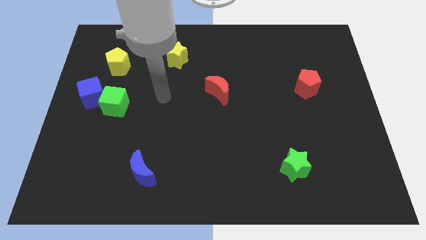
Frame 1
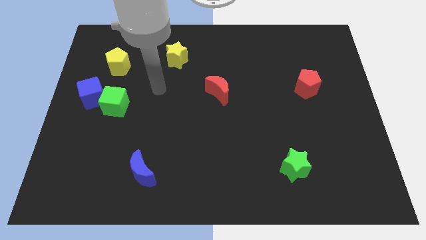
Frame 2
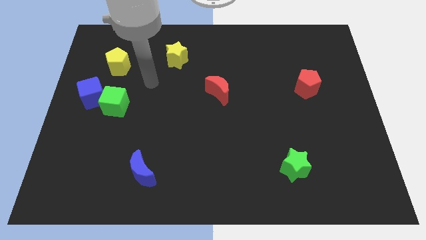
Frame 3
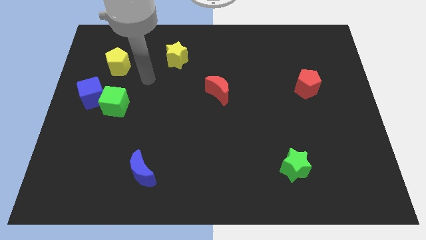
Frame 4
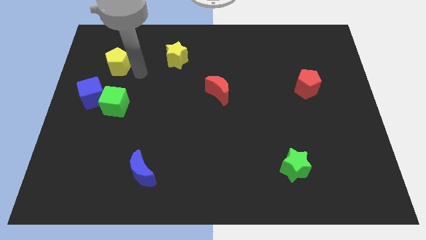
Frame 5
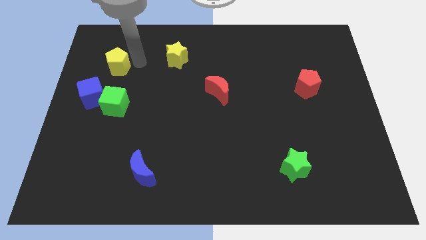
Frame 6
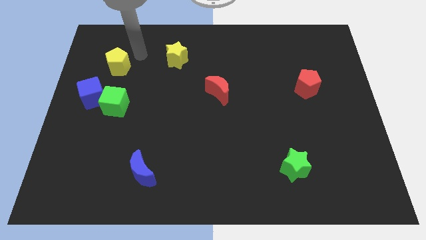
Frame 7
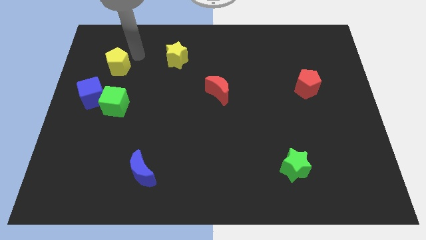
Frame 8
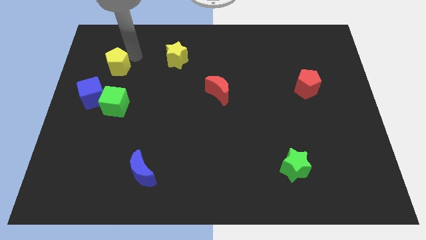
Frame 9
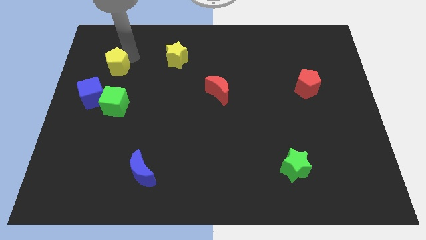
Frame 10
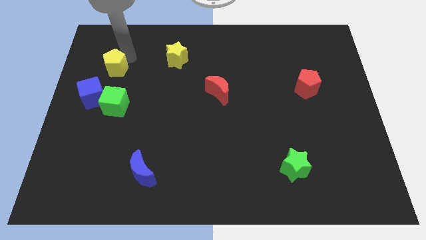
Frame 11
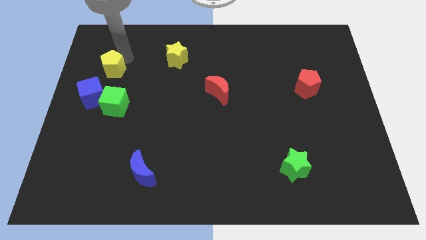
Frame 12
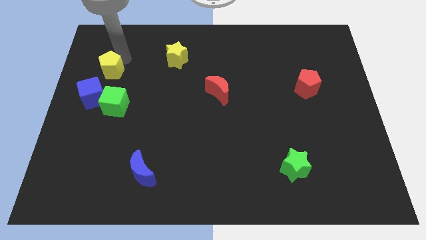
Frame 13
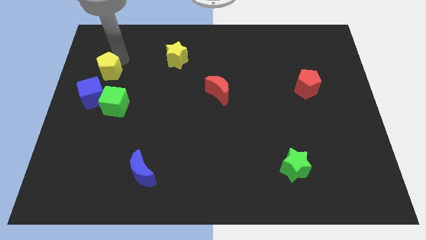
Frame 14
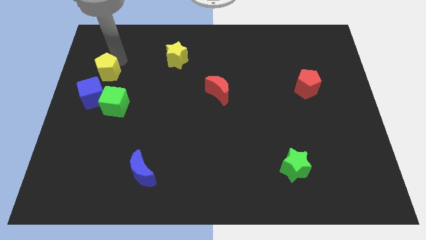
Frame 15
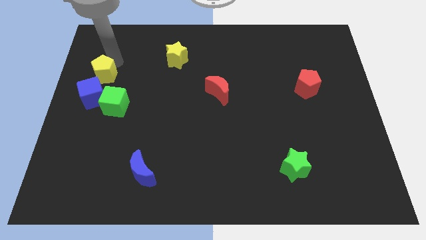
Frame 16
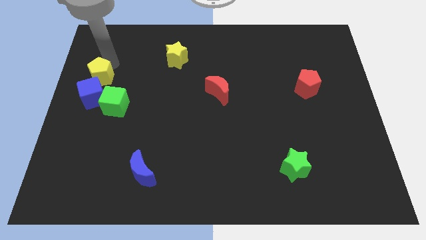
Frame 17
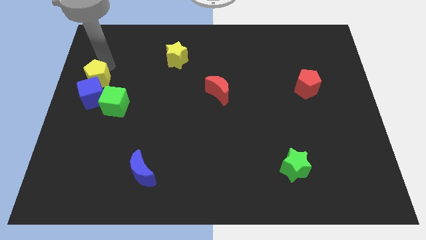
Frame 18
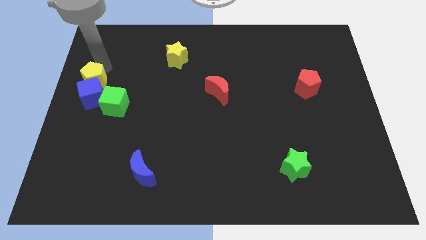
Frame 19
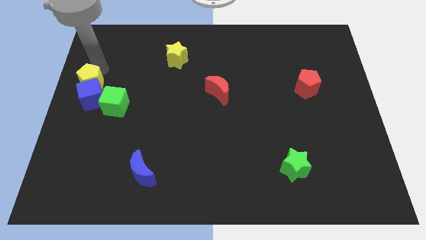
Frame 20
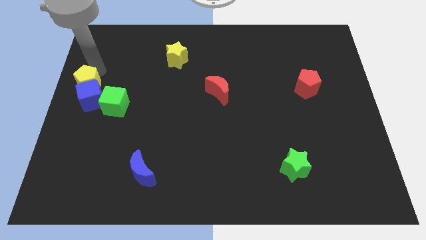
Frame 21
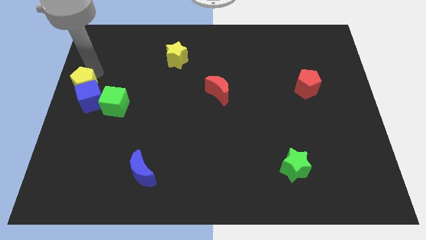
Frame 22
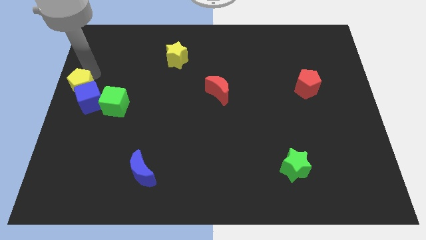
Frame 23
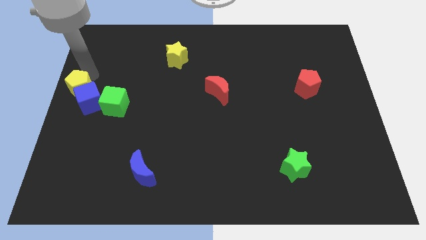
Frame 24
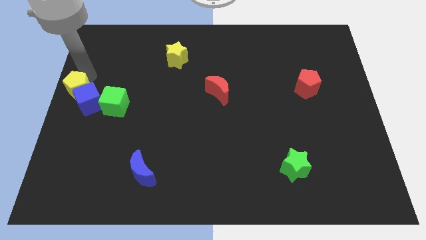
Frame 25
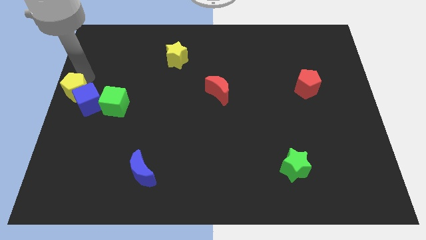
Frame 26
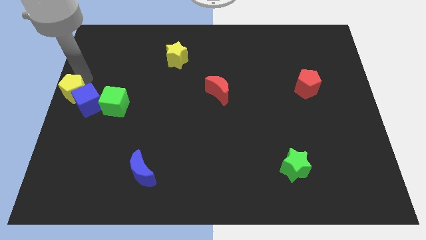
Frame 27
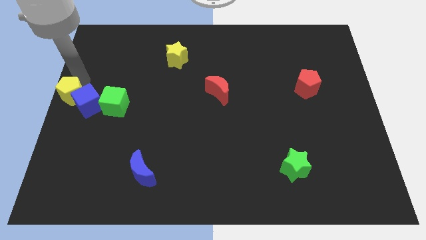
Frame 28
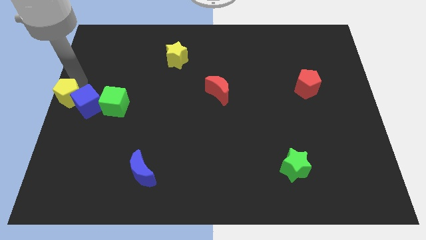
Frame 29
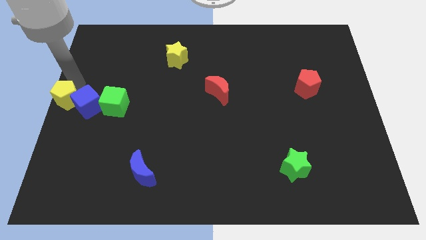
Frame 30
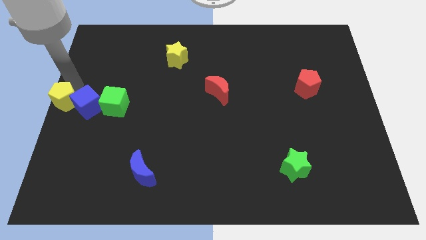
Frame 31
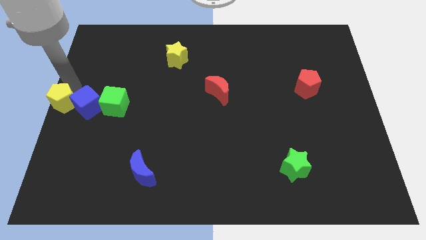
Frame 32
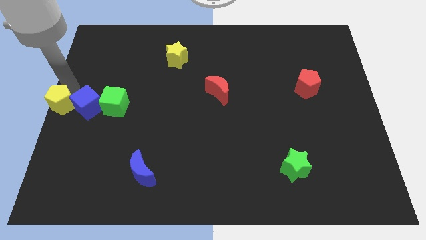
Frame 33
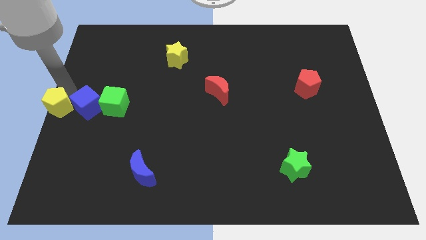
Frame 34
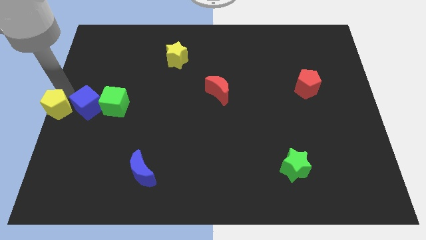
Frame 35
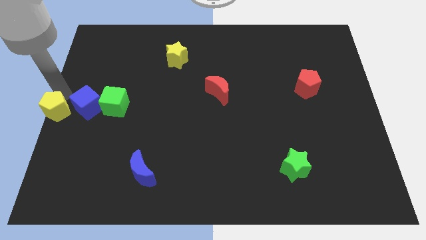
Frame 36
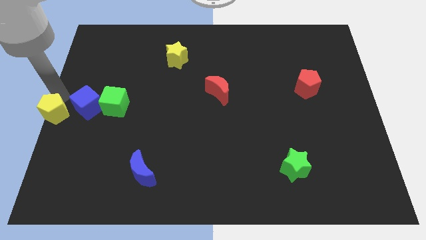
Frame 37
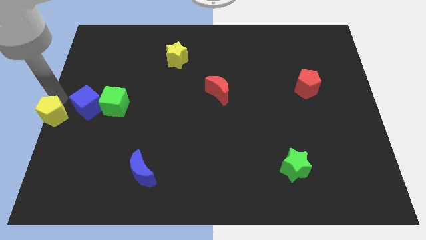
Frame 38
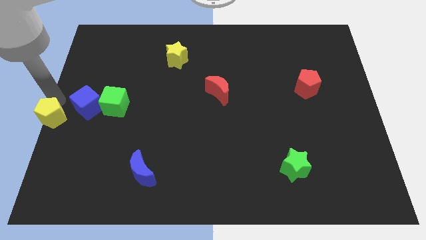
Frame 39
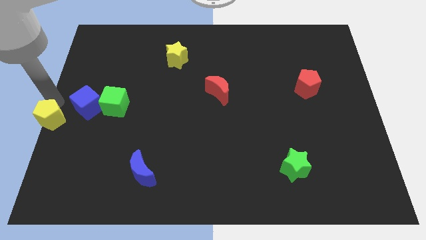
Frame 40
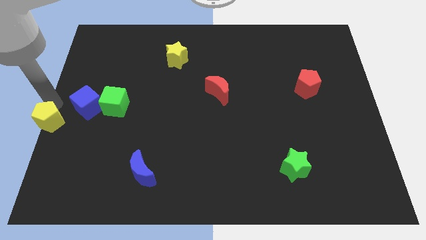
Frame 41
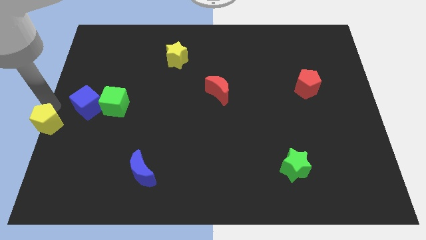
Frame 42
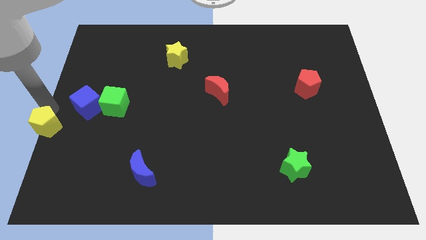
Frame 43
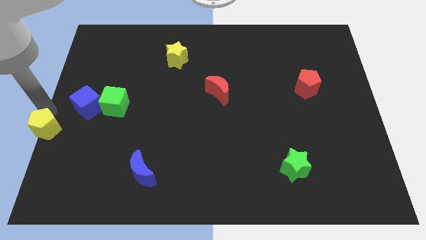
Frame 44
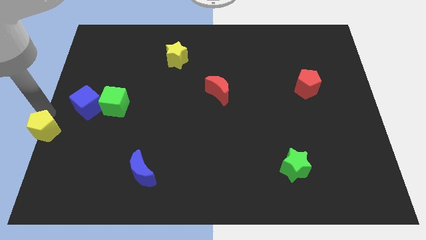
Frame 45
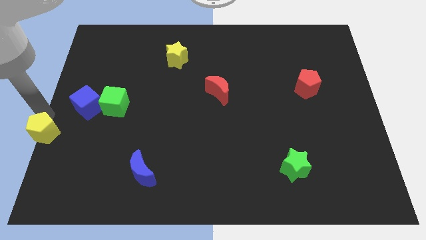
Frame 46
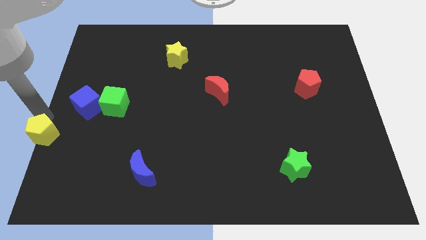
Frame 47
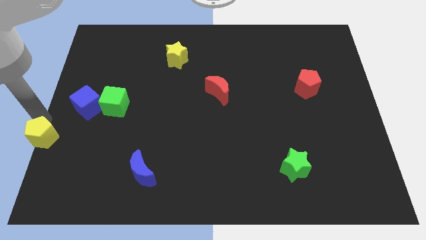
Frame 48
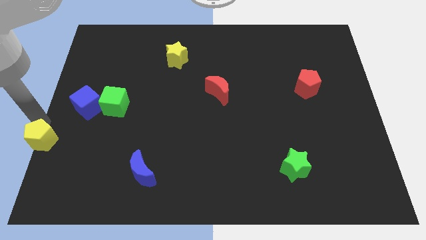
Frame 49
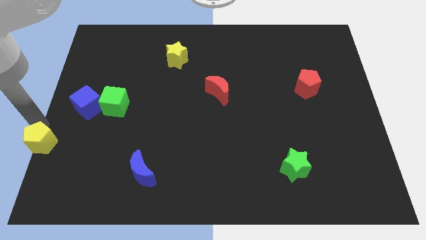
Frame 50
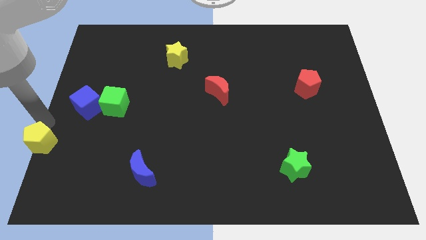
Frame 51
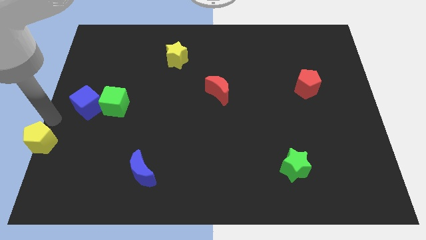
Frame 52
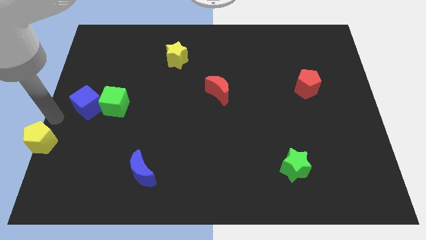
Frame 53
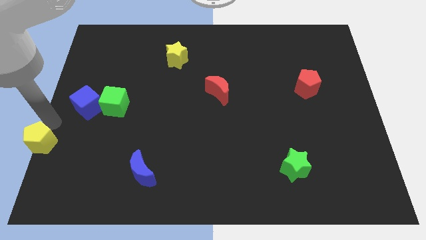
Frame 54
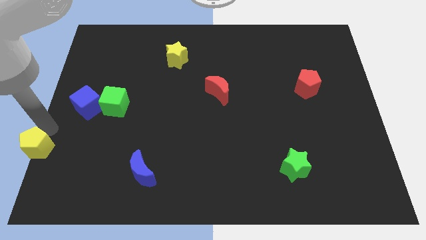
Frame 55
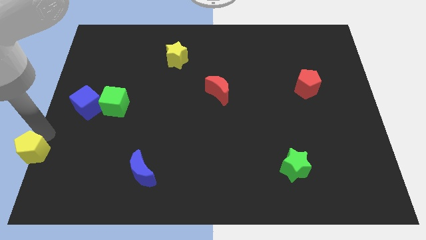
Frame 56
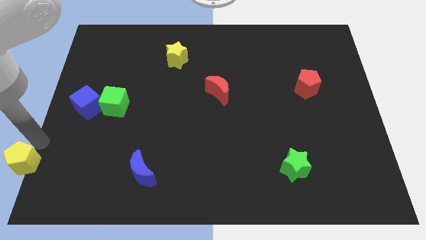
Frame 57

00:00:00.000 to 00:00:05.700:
put the yellow pentagon to the bottom left corner
